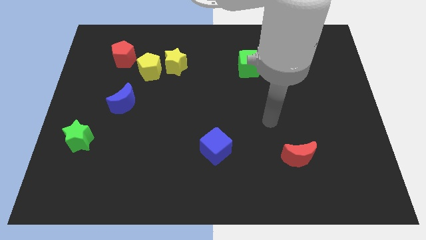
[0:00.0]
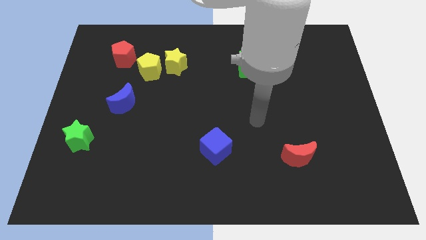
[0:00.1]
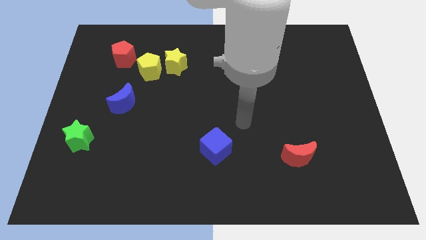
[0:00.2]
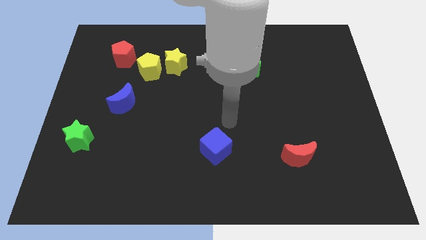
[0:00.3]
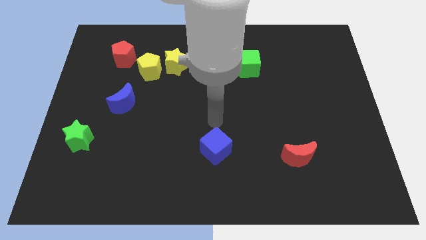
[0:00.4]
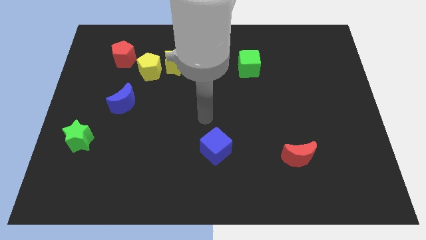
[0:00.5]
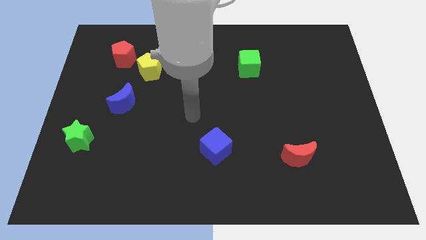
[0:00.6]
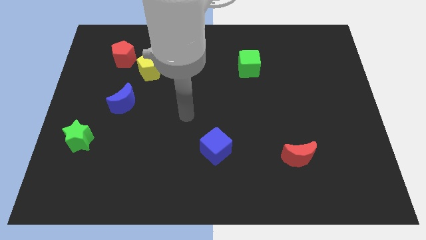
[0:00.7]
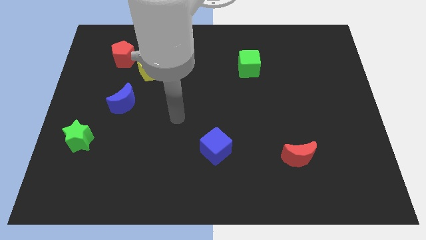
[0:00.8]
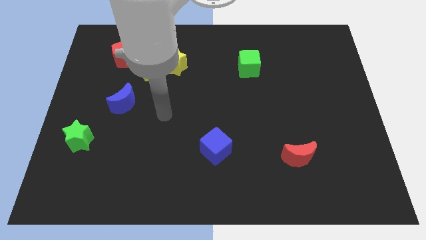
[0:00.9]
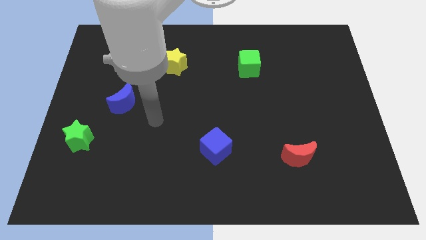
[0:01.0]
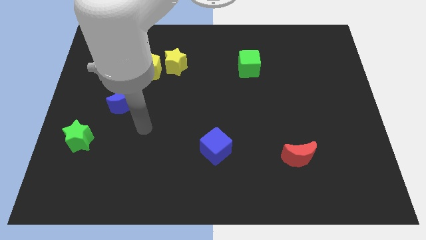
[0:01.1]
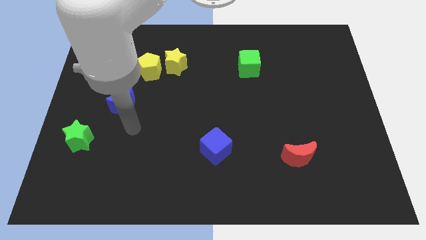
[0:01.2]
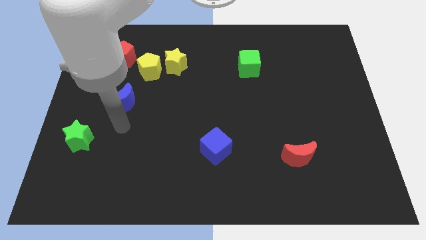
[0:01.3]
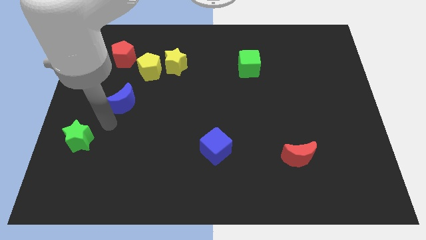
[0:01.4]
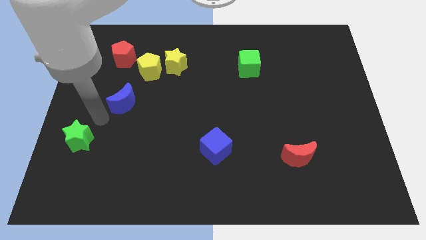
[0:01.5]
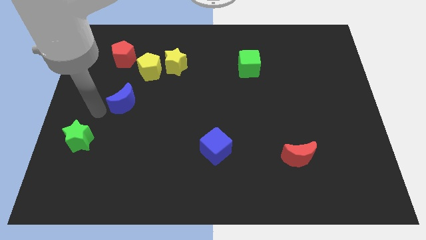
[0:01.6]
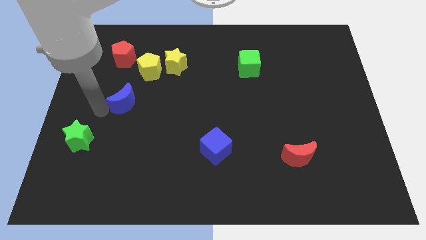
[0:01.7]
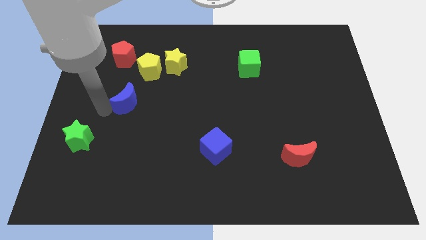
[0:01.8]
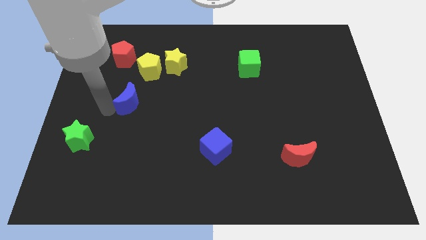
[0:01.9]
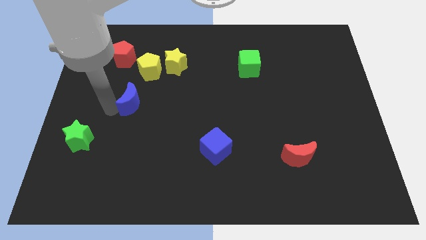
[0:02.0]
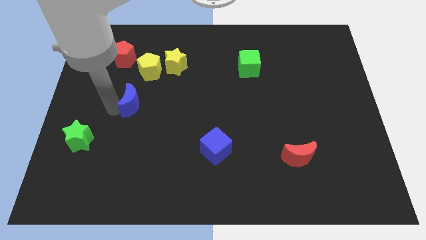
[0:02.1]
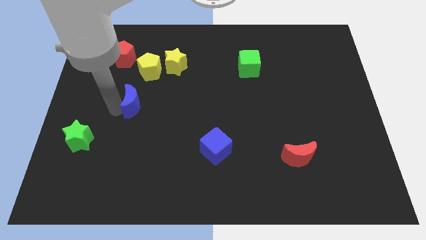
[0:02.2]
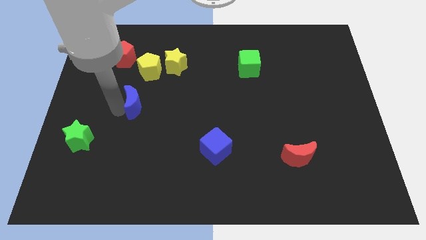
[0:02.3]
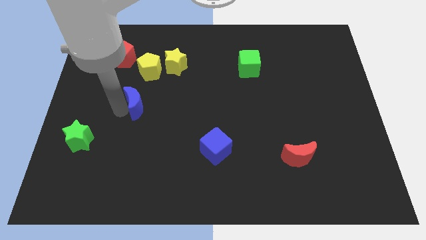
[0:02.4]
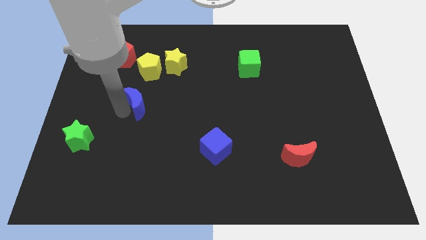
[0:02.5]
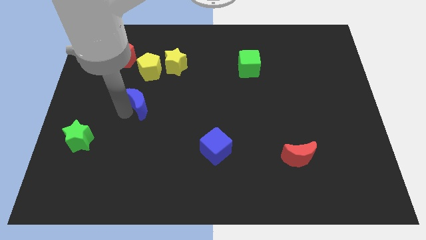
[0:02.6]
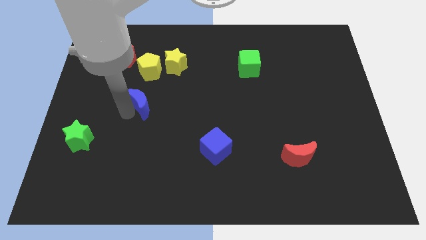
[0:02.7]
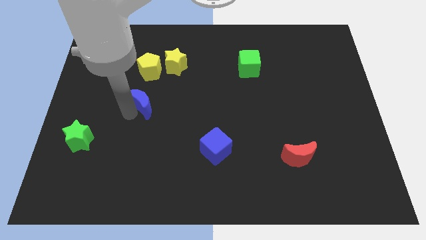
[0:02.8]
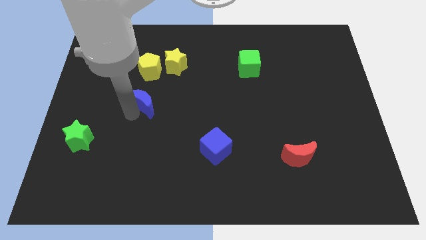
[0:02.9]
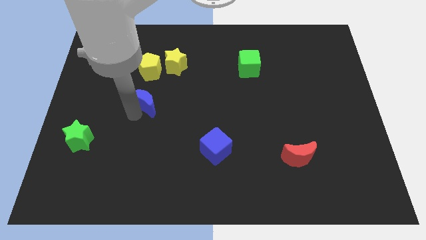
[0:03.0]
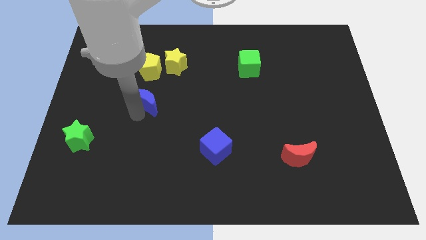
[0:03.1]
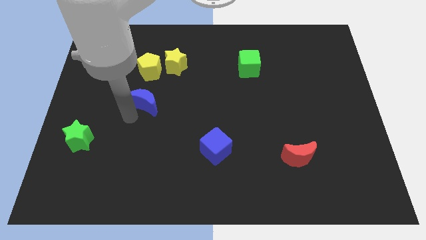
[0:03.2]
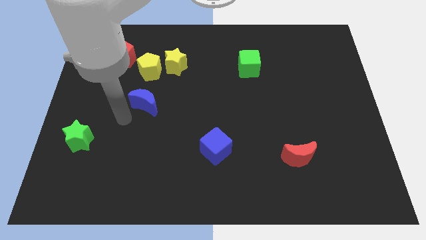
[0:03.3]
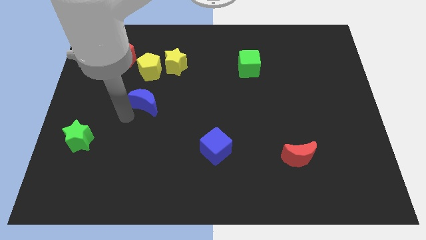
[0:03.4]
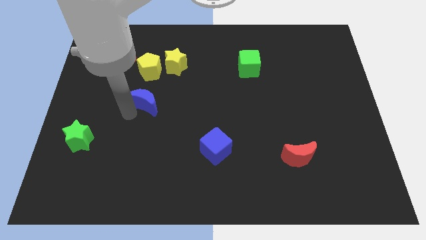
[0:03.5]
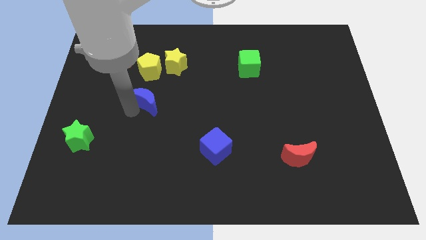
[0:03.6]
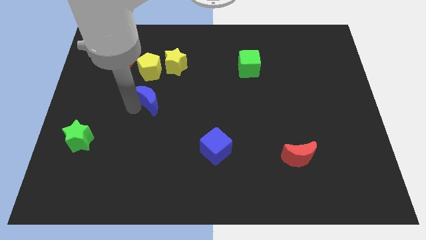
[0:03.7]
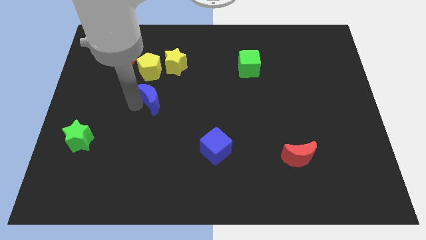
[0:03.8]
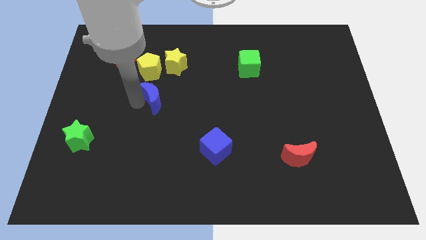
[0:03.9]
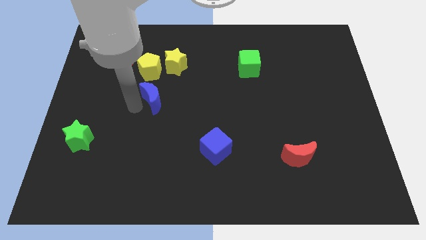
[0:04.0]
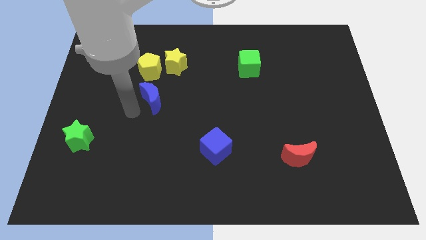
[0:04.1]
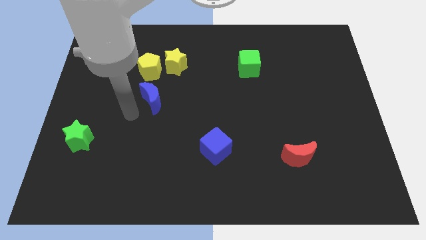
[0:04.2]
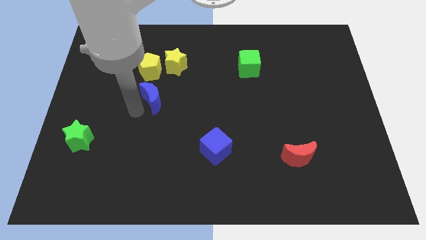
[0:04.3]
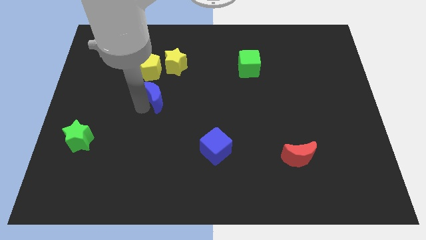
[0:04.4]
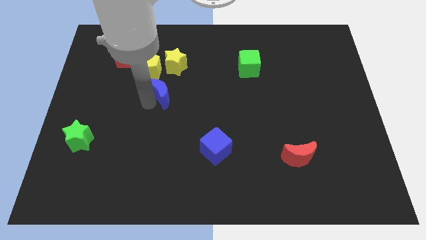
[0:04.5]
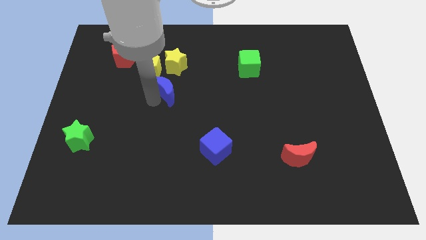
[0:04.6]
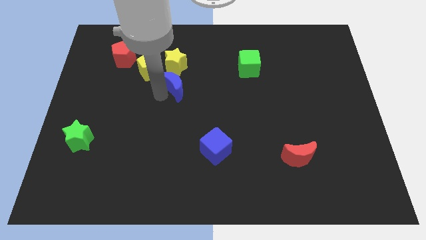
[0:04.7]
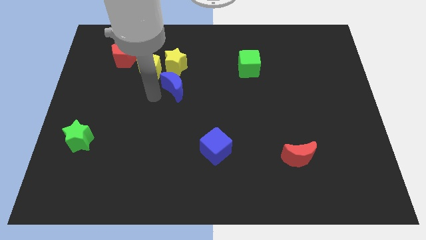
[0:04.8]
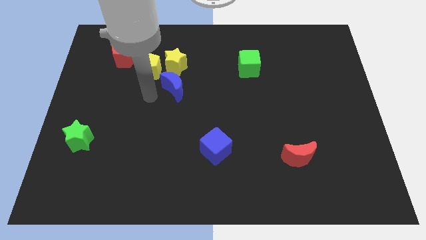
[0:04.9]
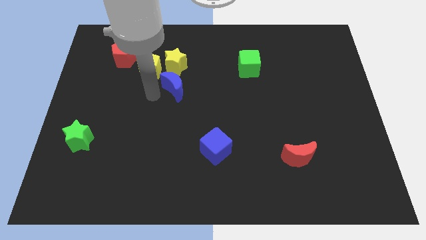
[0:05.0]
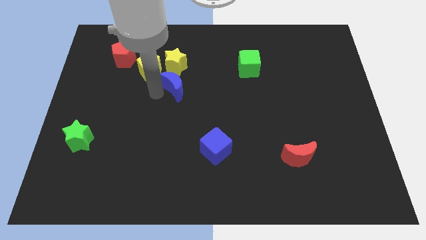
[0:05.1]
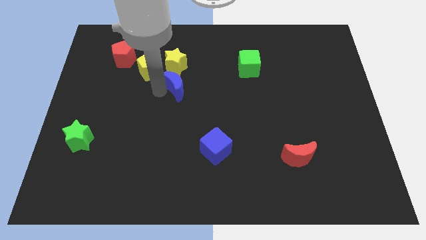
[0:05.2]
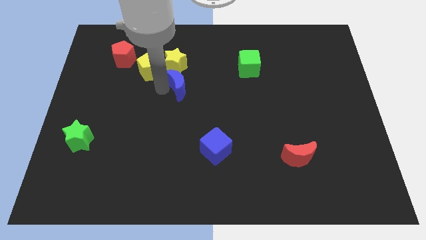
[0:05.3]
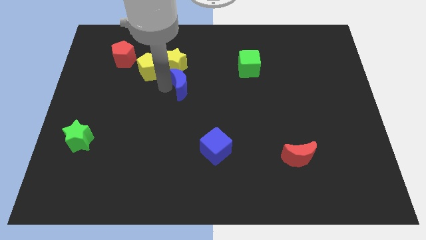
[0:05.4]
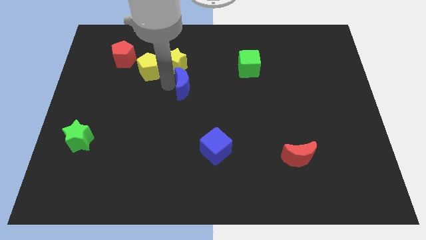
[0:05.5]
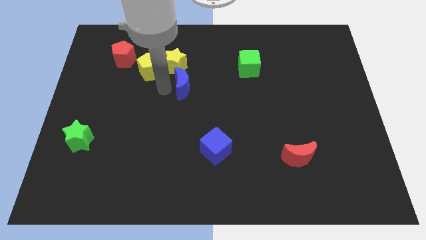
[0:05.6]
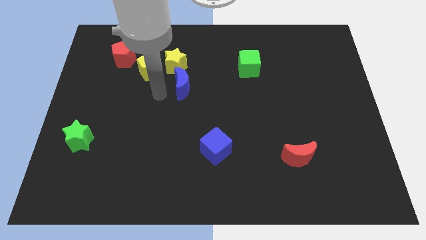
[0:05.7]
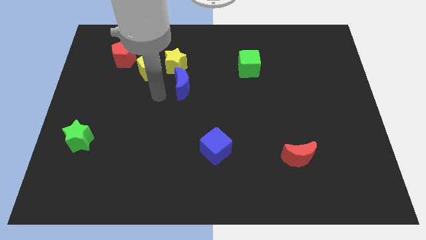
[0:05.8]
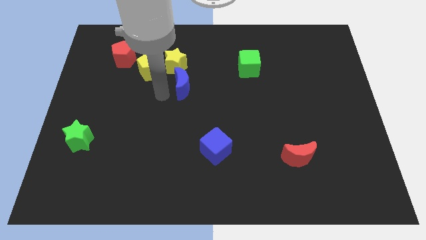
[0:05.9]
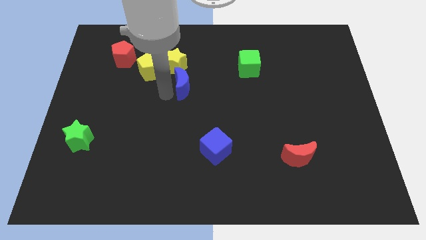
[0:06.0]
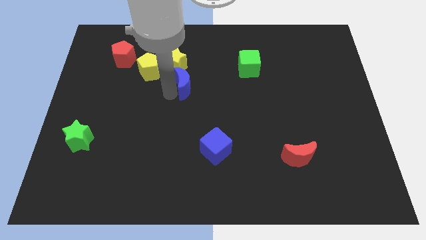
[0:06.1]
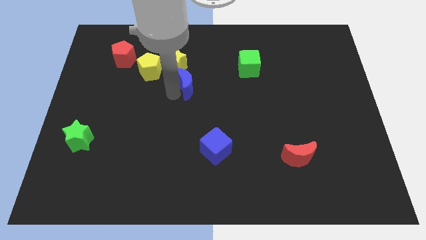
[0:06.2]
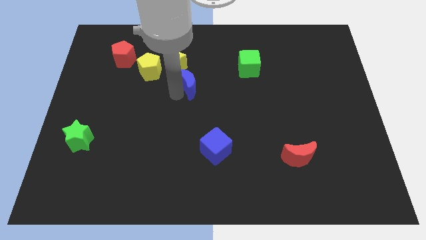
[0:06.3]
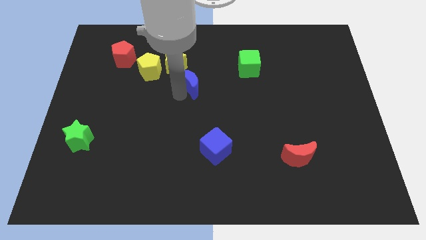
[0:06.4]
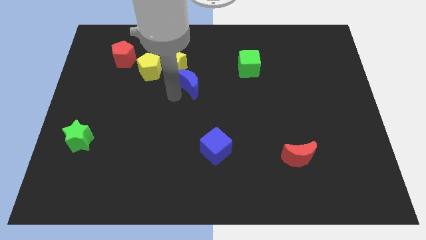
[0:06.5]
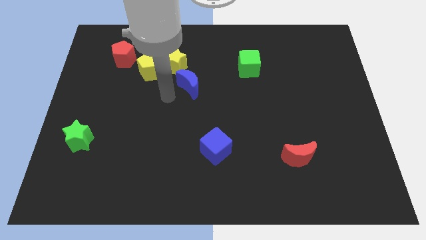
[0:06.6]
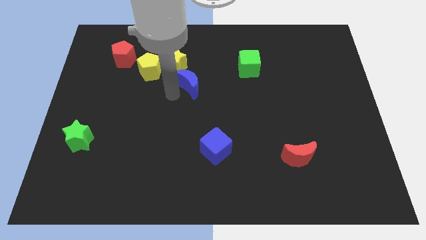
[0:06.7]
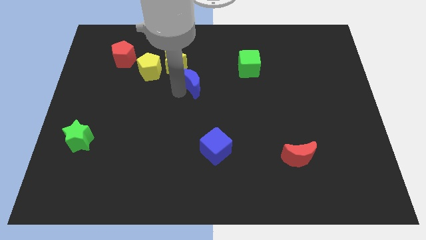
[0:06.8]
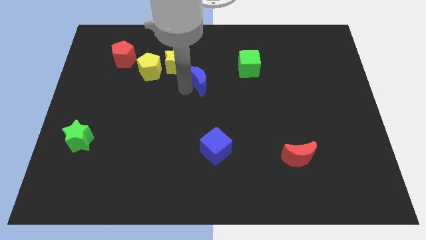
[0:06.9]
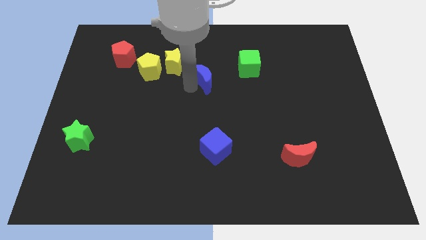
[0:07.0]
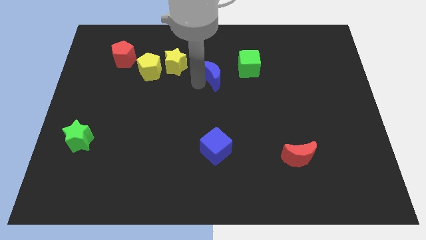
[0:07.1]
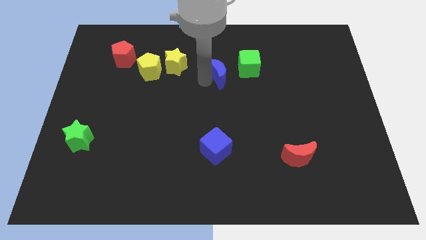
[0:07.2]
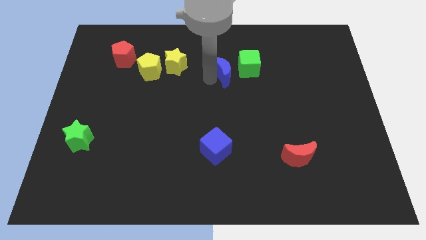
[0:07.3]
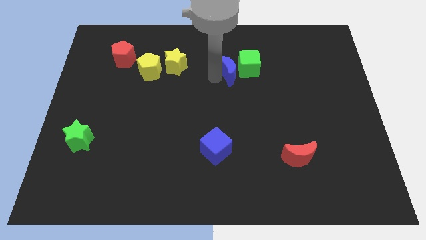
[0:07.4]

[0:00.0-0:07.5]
put the blue moon towards the green cube
